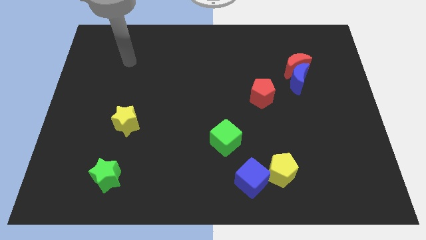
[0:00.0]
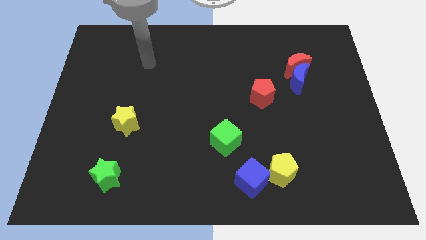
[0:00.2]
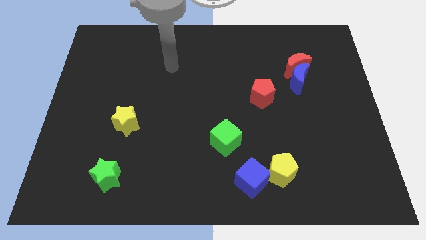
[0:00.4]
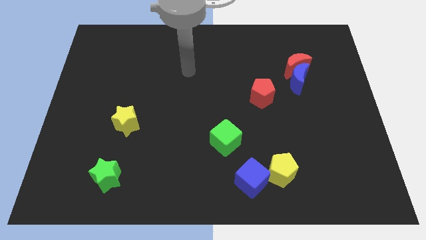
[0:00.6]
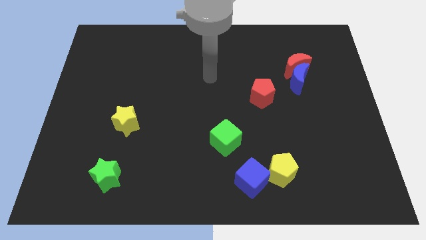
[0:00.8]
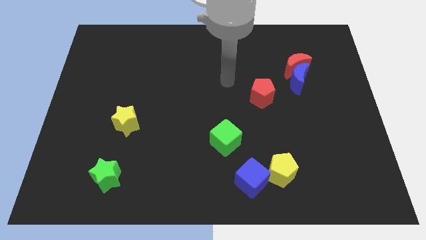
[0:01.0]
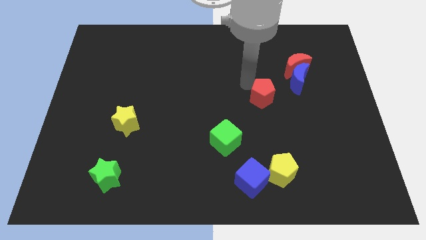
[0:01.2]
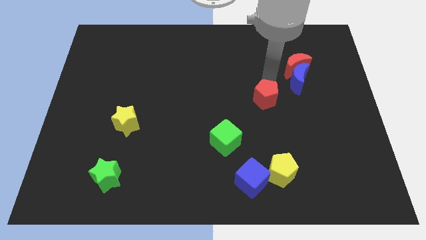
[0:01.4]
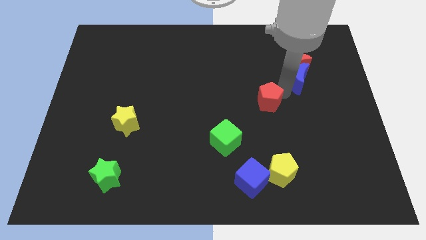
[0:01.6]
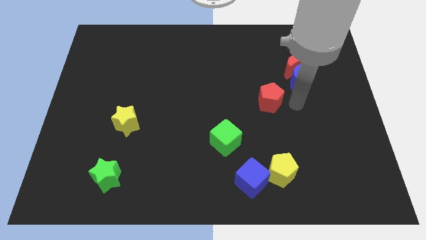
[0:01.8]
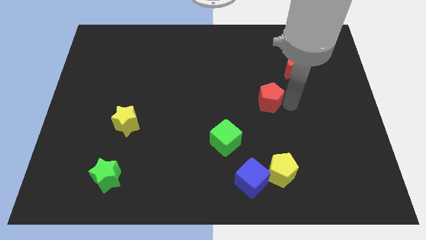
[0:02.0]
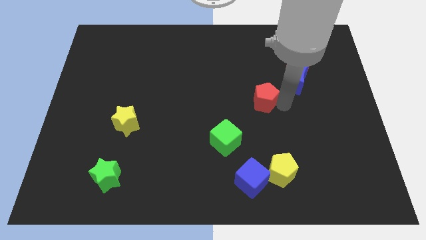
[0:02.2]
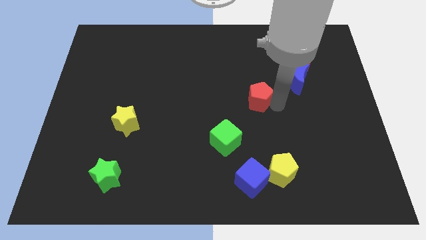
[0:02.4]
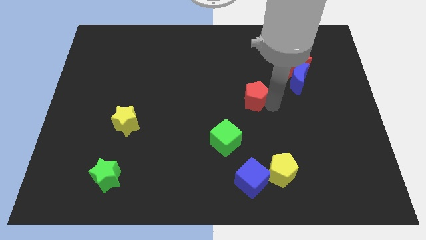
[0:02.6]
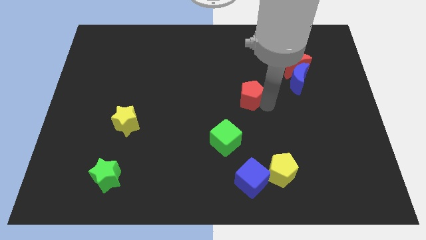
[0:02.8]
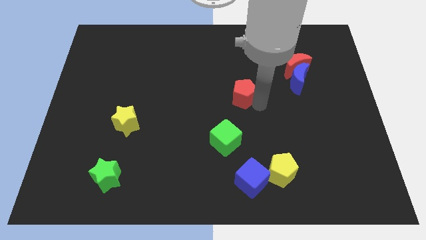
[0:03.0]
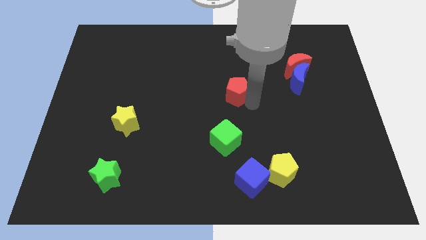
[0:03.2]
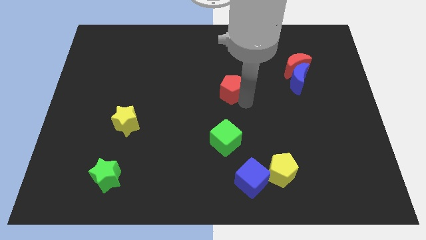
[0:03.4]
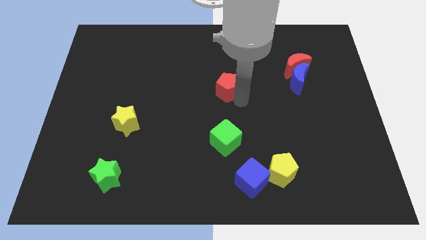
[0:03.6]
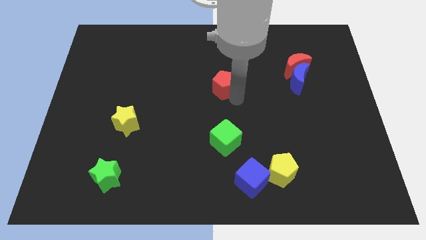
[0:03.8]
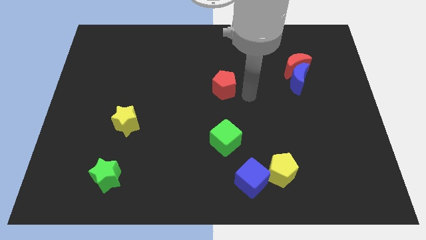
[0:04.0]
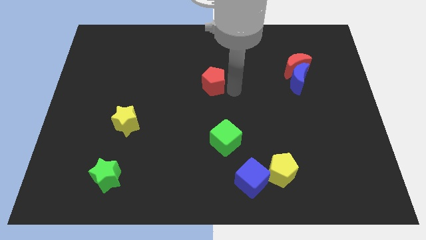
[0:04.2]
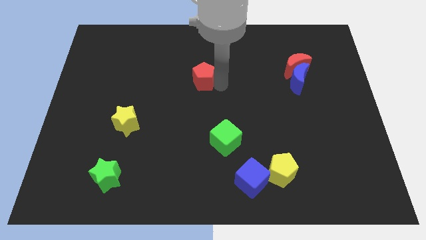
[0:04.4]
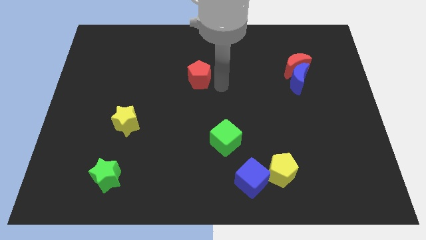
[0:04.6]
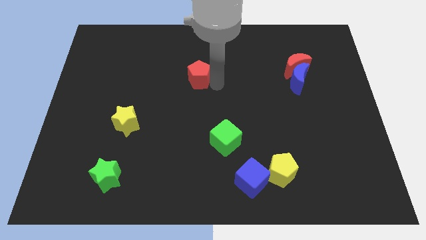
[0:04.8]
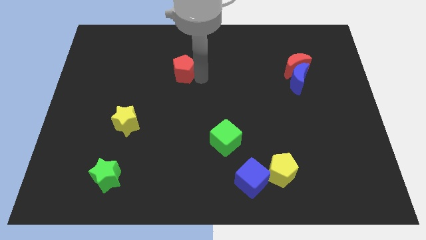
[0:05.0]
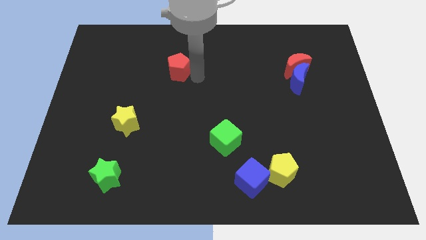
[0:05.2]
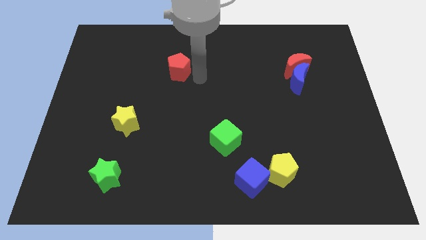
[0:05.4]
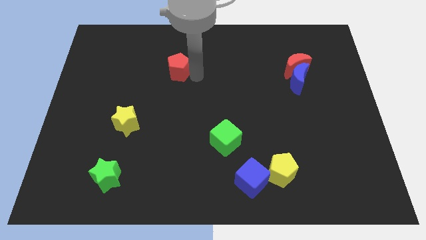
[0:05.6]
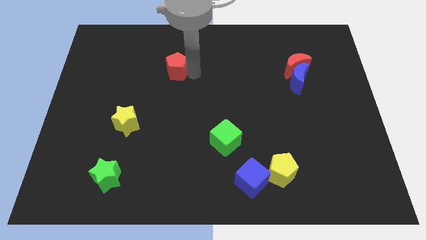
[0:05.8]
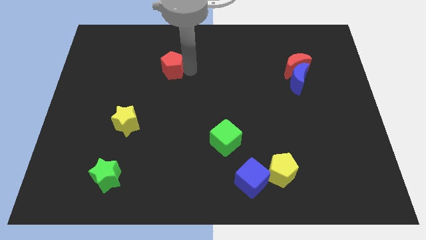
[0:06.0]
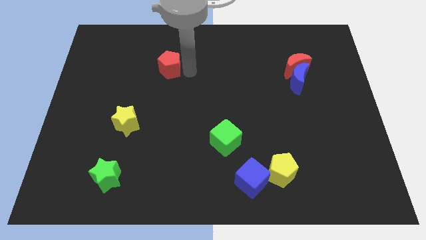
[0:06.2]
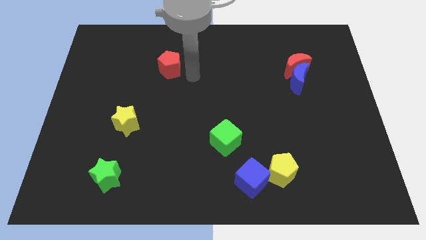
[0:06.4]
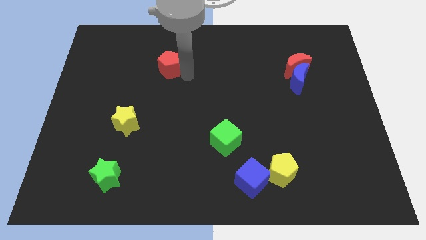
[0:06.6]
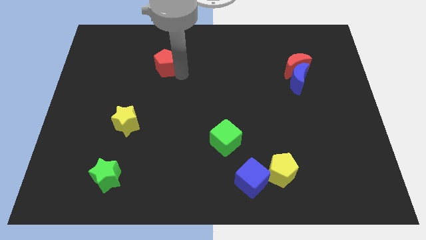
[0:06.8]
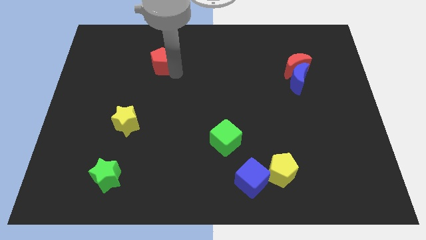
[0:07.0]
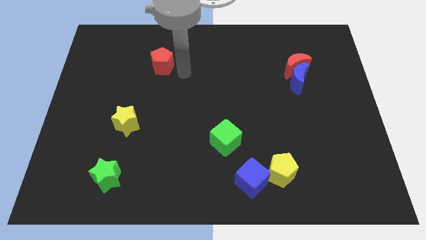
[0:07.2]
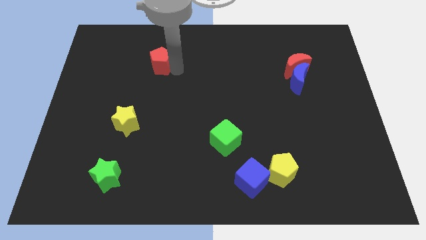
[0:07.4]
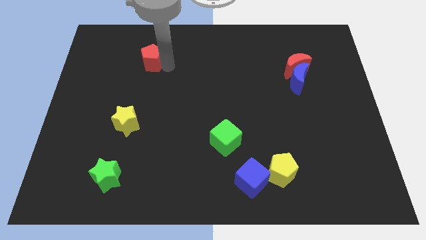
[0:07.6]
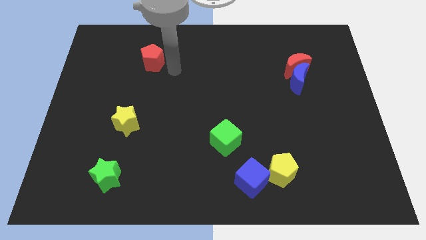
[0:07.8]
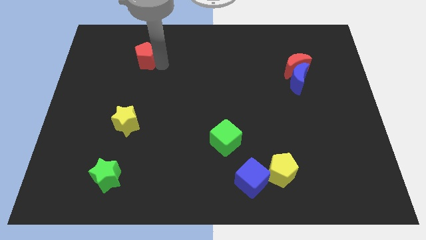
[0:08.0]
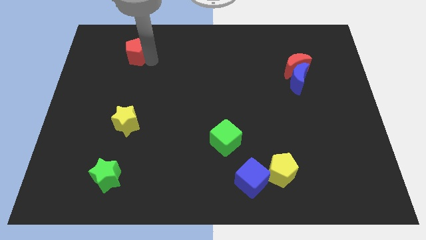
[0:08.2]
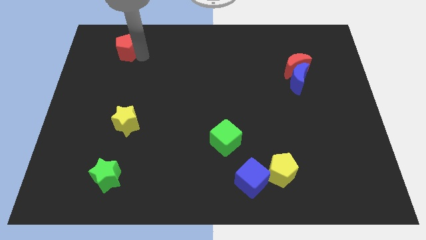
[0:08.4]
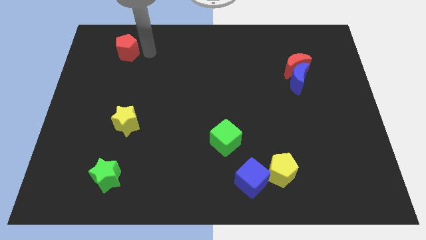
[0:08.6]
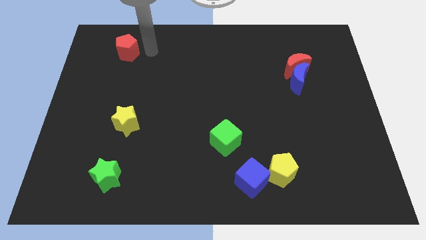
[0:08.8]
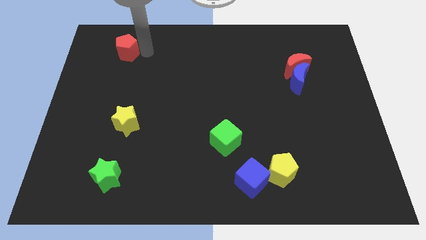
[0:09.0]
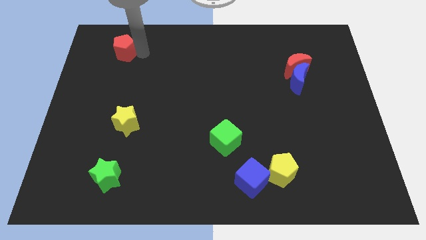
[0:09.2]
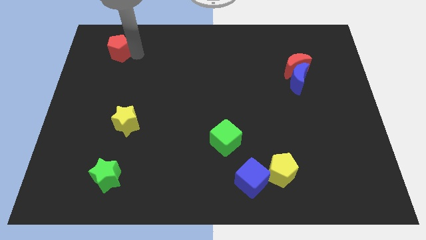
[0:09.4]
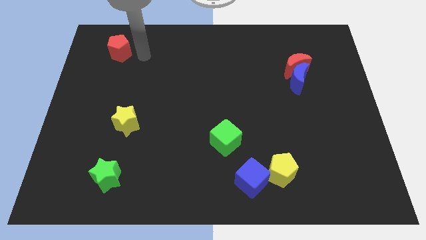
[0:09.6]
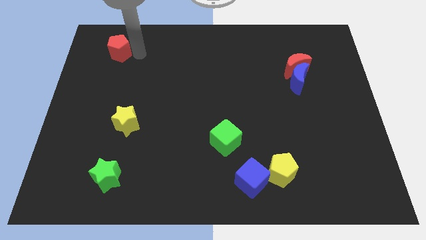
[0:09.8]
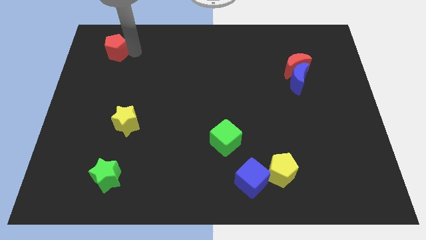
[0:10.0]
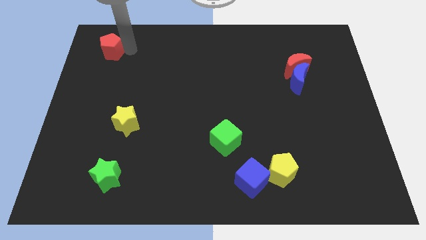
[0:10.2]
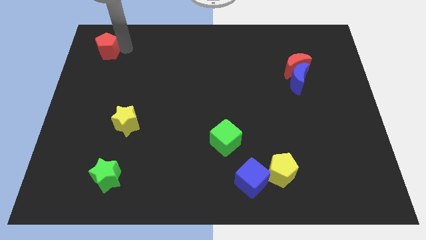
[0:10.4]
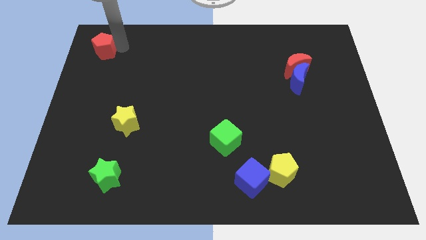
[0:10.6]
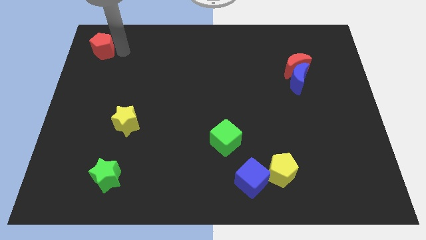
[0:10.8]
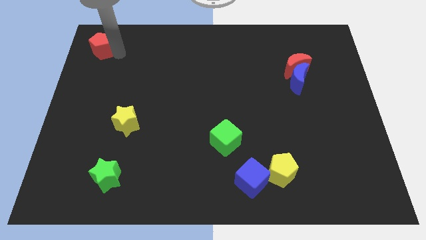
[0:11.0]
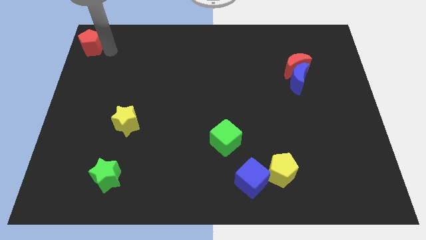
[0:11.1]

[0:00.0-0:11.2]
move the red pentagon to the top left

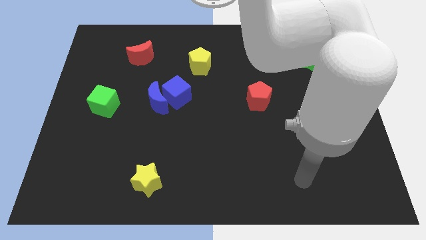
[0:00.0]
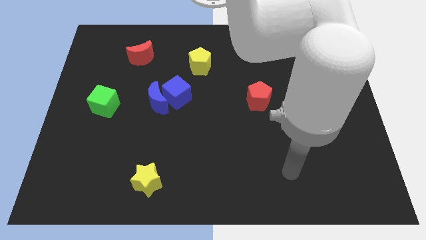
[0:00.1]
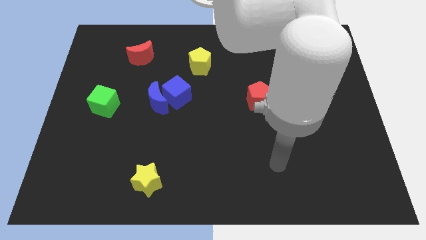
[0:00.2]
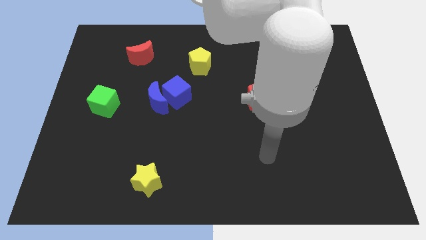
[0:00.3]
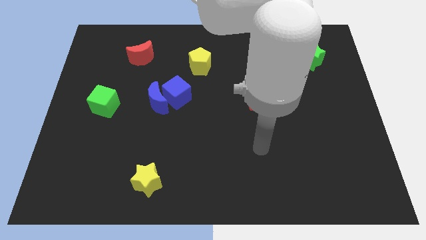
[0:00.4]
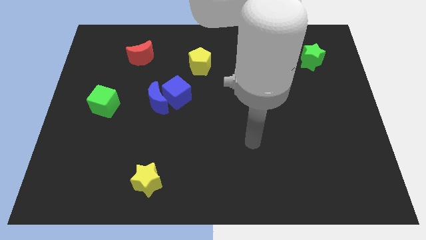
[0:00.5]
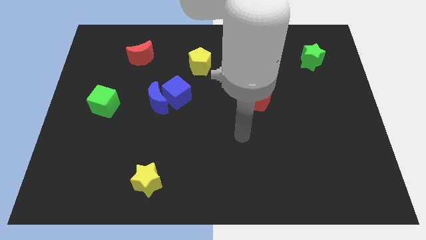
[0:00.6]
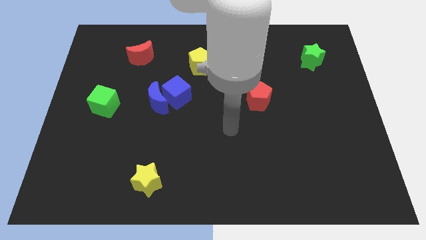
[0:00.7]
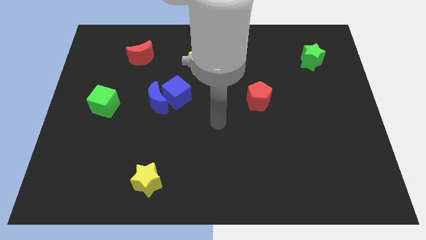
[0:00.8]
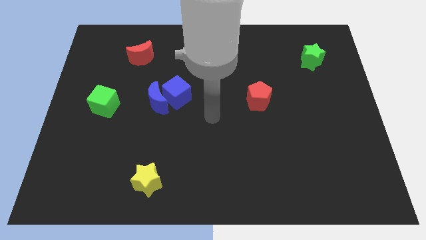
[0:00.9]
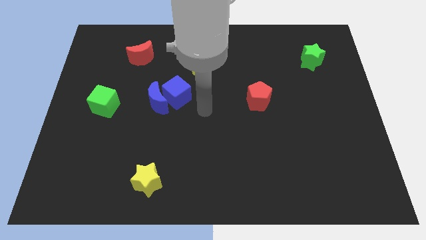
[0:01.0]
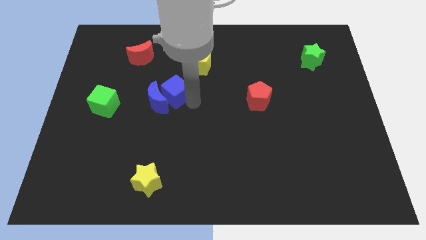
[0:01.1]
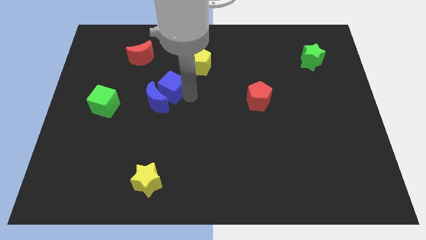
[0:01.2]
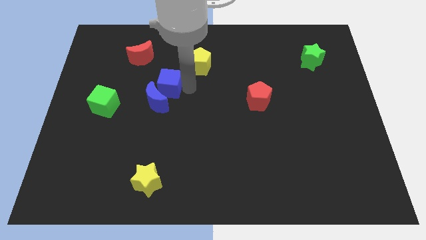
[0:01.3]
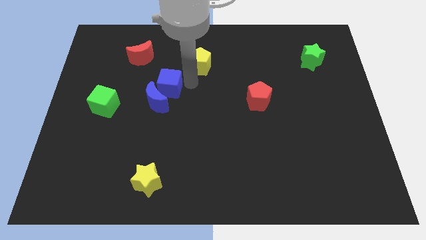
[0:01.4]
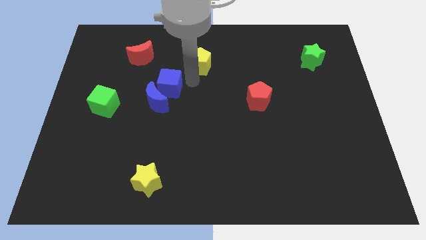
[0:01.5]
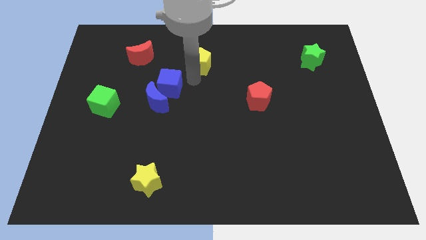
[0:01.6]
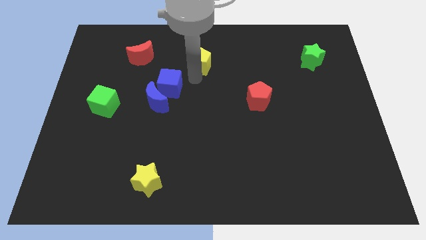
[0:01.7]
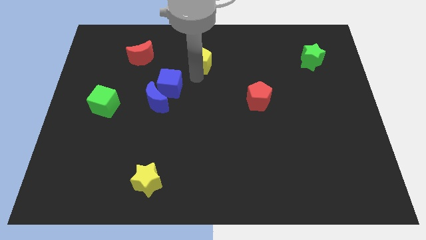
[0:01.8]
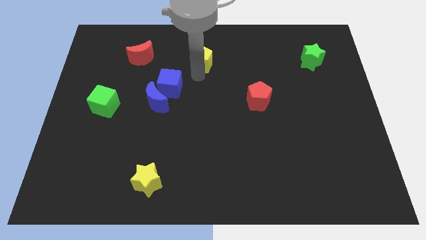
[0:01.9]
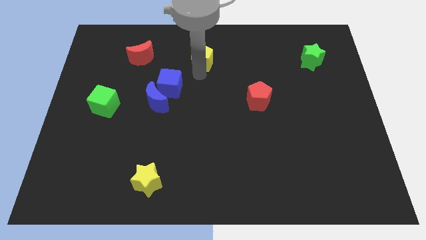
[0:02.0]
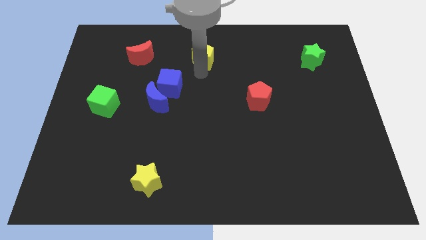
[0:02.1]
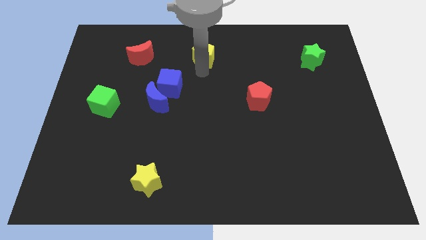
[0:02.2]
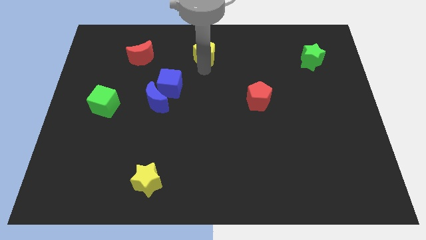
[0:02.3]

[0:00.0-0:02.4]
slide the yellow pentagon to the top side
